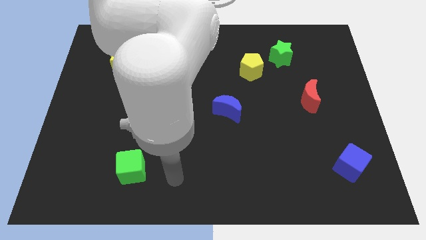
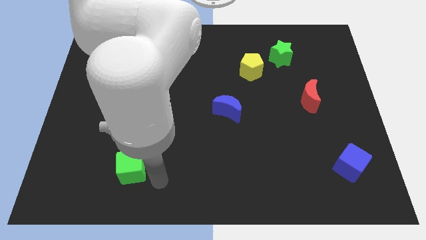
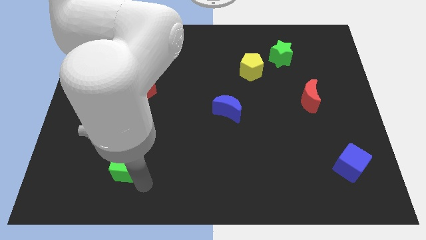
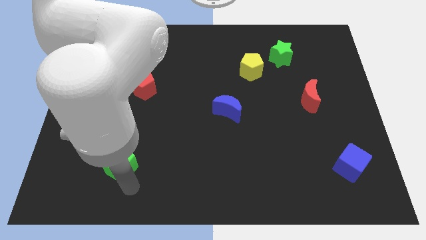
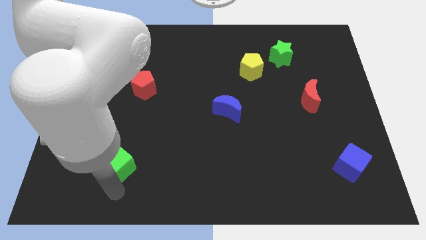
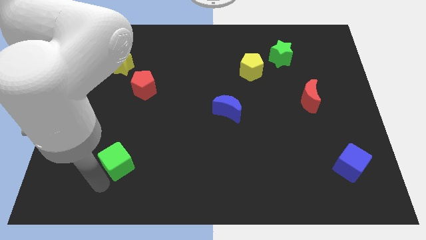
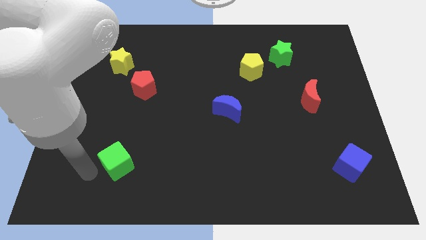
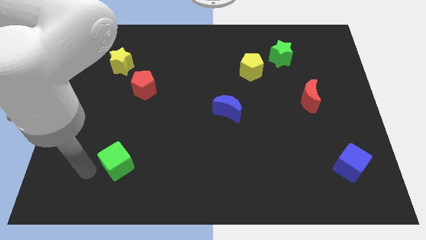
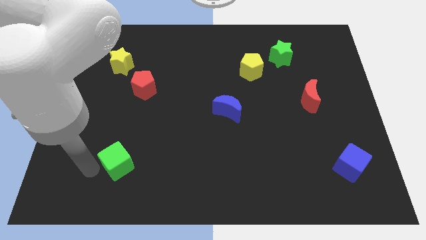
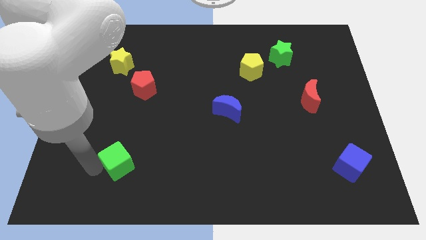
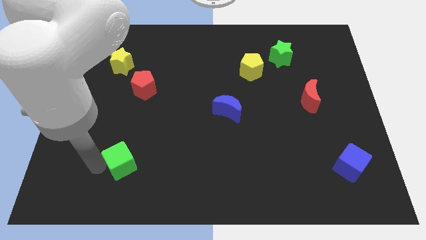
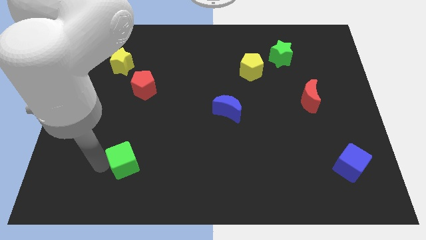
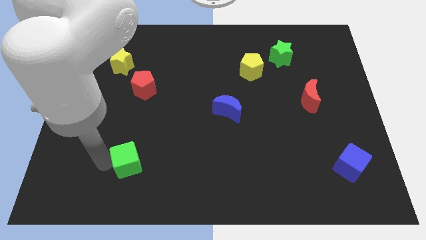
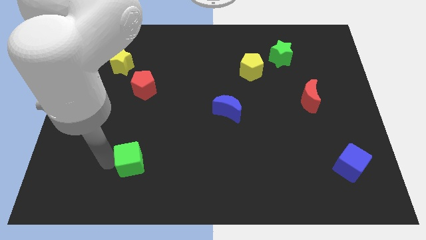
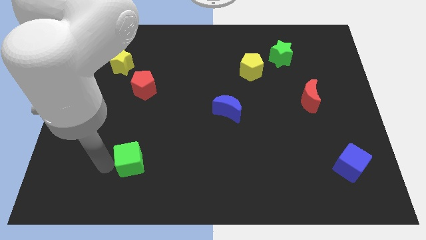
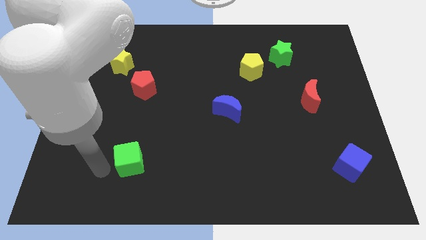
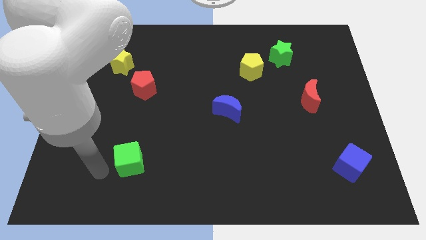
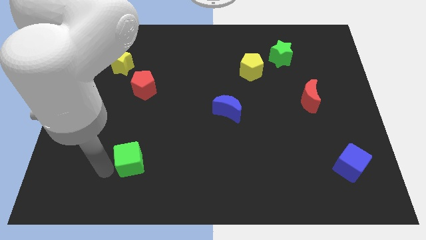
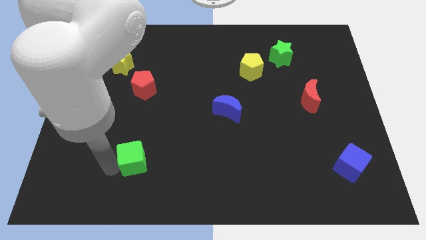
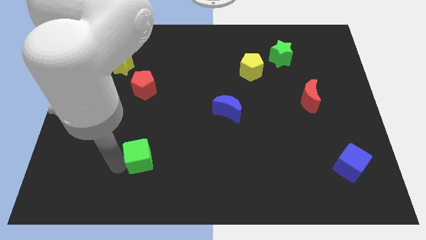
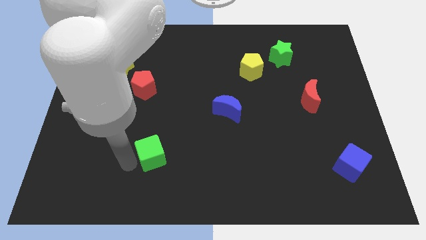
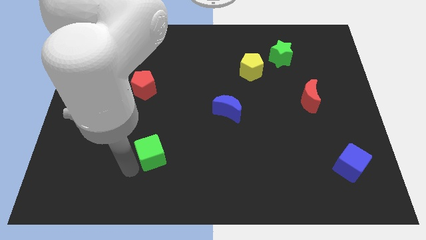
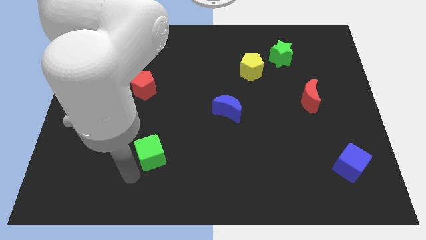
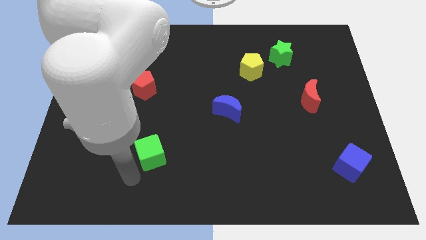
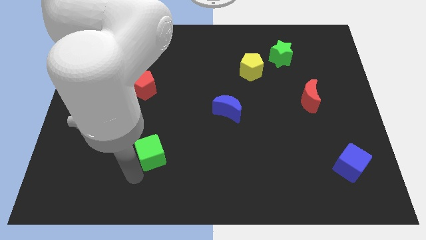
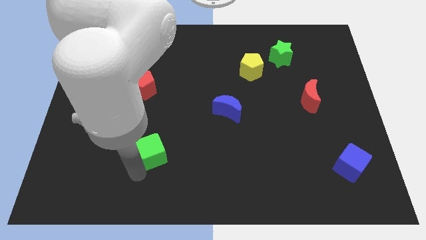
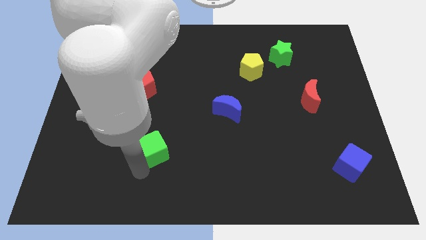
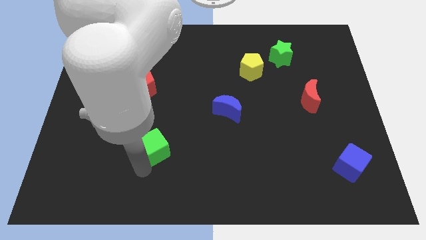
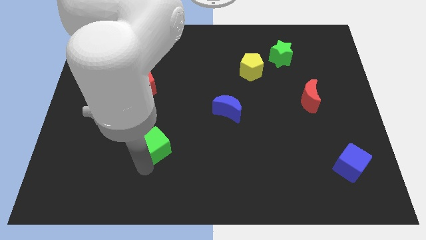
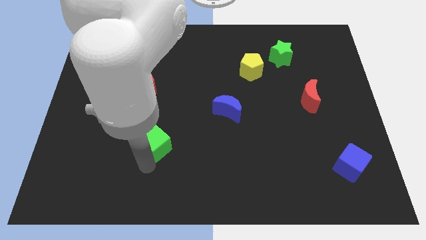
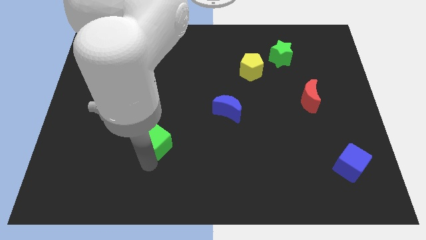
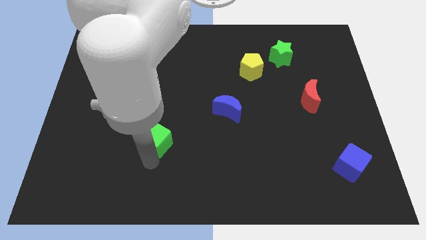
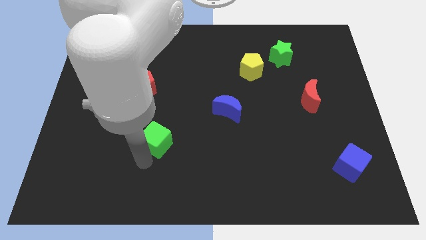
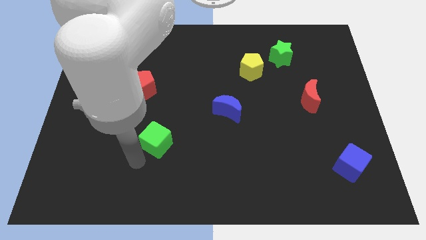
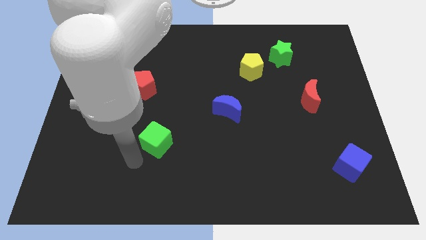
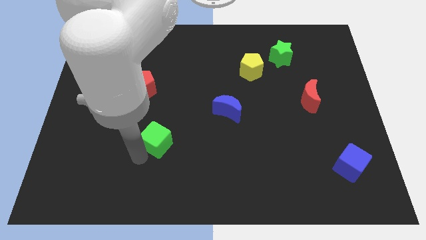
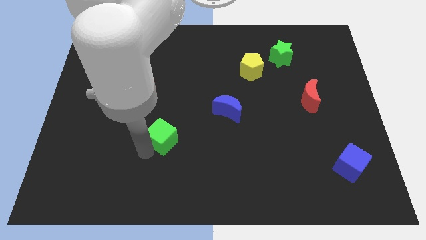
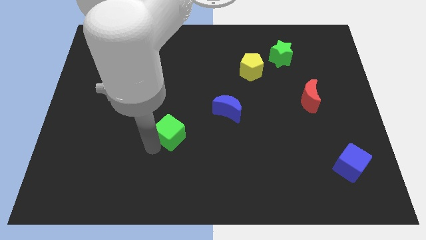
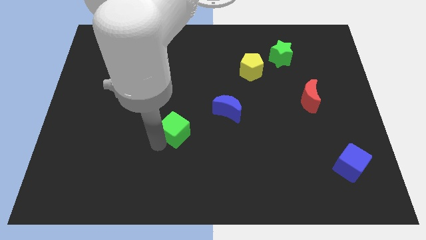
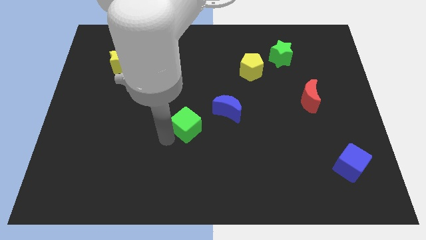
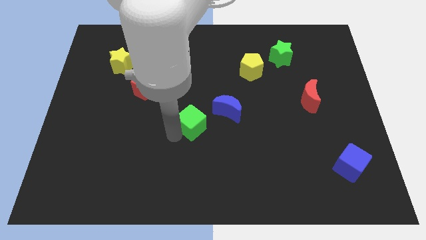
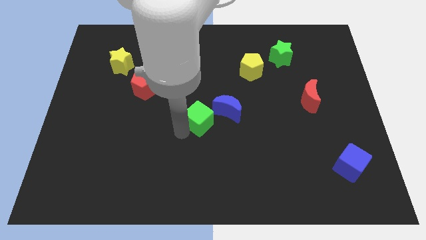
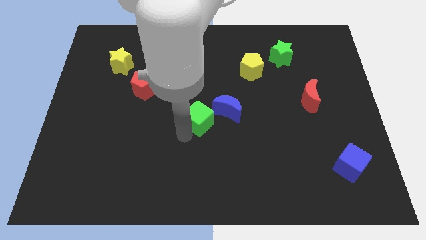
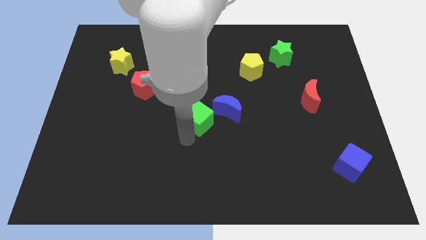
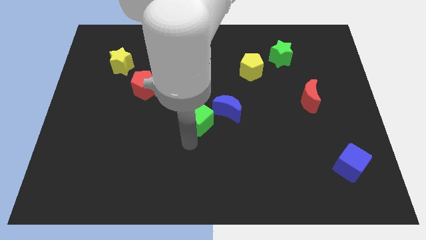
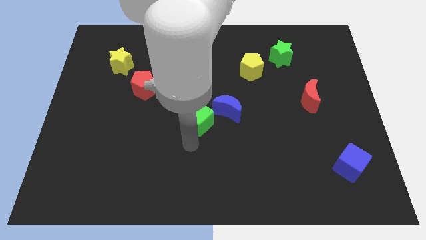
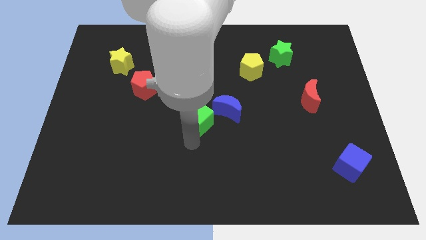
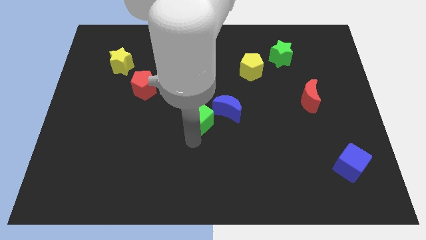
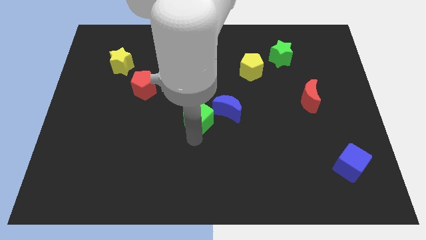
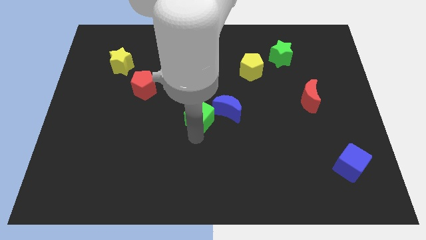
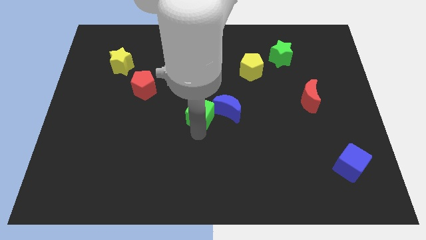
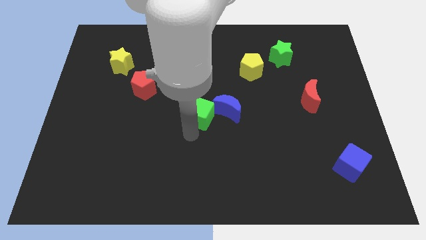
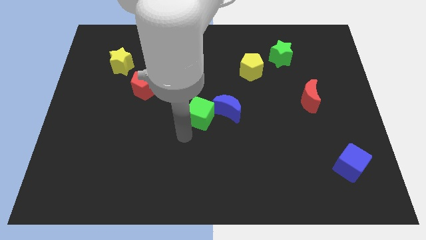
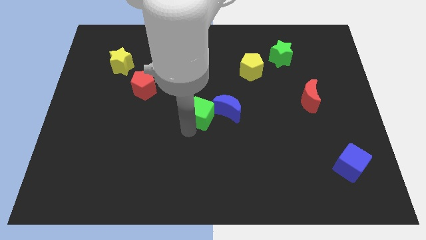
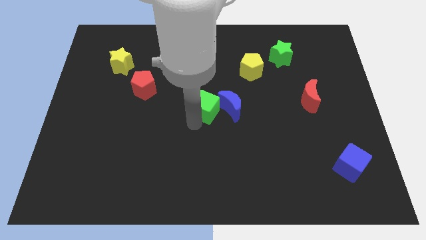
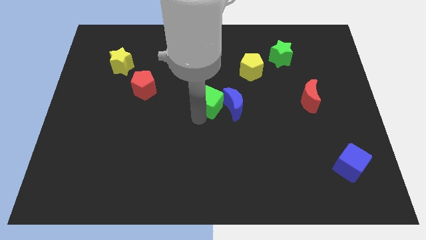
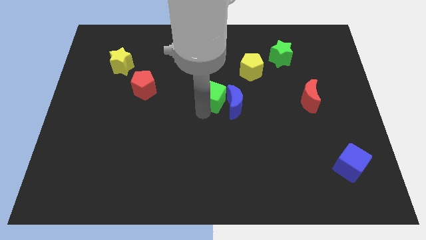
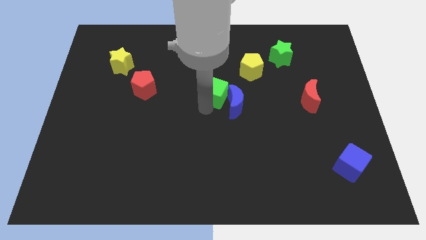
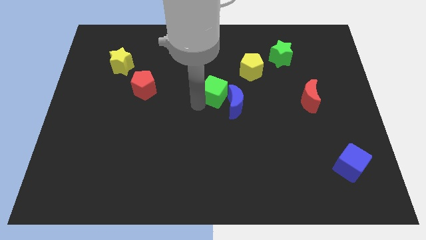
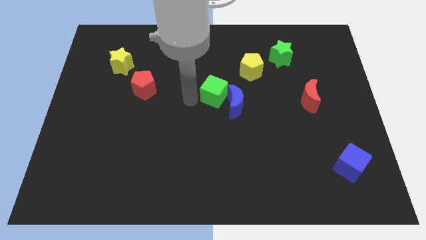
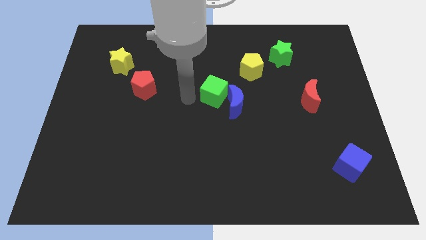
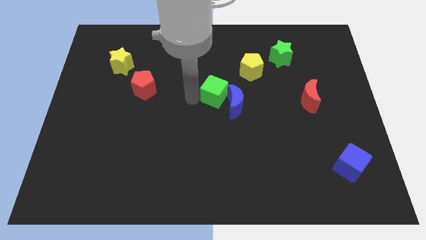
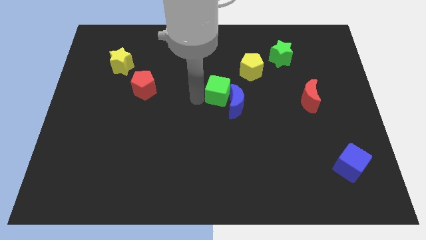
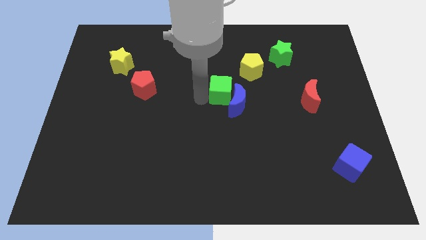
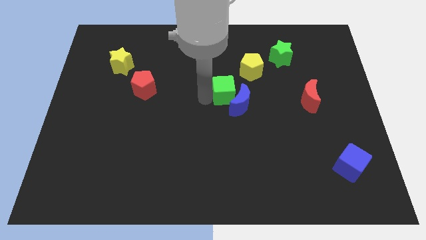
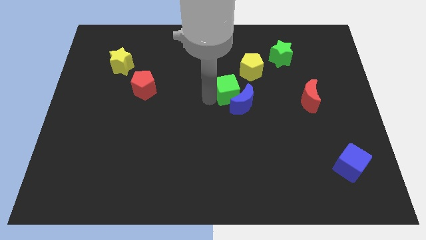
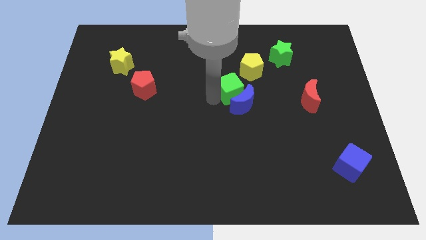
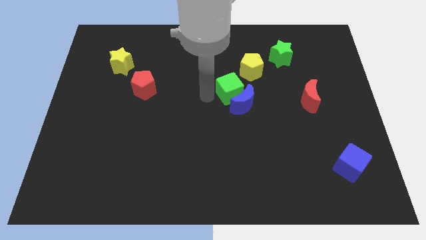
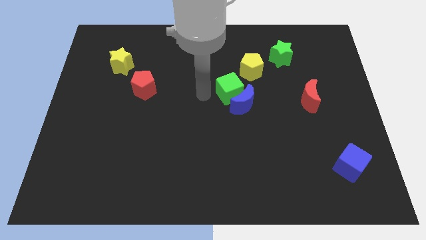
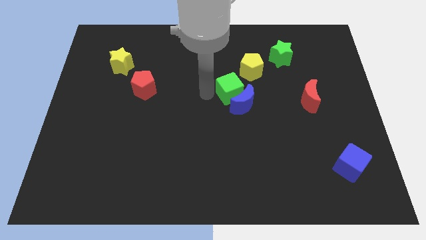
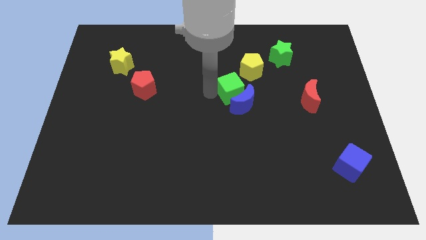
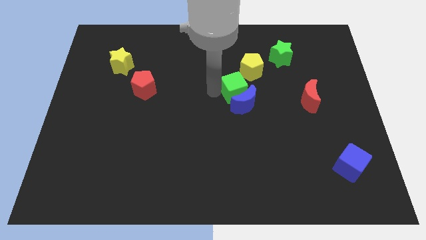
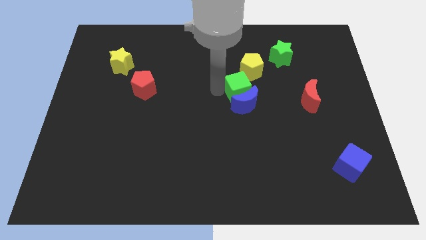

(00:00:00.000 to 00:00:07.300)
push the green cube diagonally up and to the right of the blue moon
